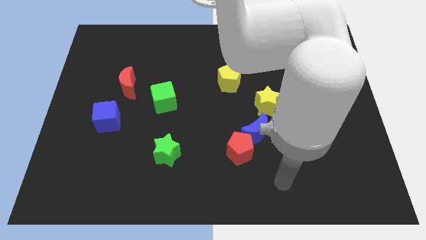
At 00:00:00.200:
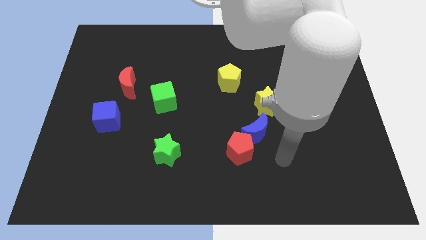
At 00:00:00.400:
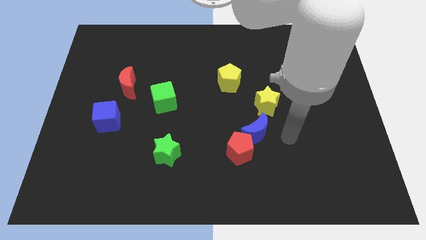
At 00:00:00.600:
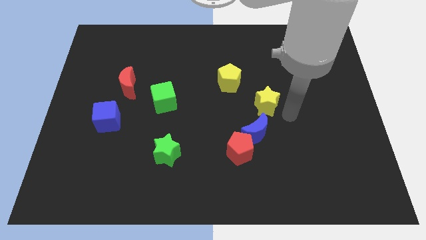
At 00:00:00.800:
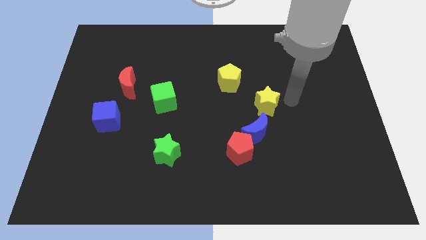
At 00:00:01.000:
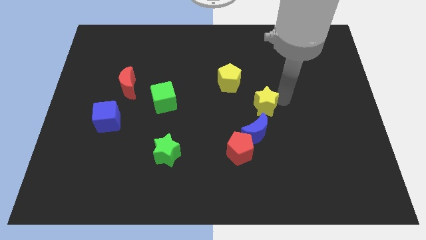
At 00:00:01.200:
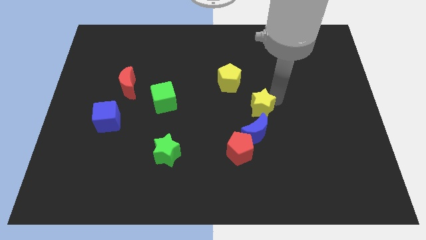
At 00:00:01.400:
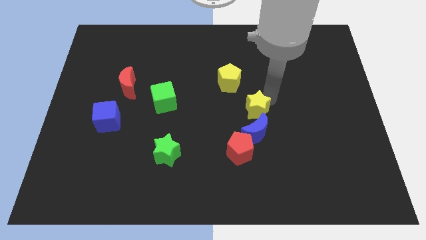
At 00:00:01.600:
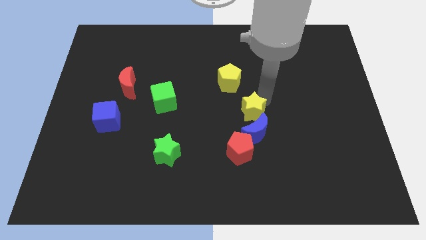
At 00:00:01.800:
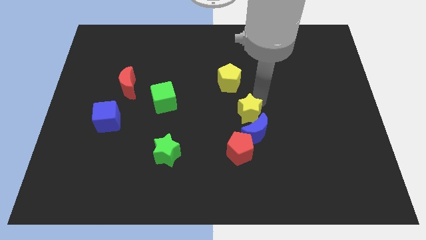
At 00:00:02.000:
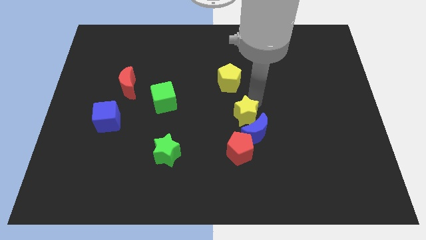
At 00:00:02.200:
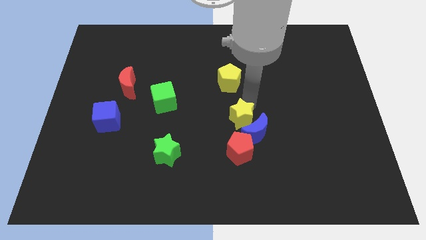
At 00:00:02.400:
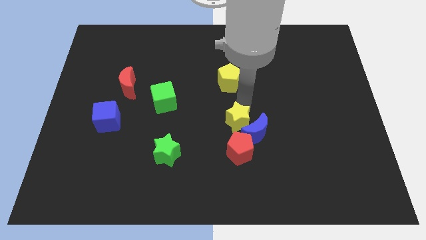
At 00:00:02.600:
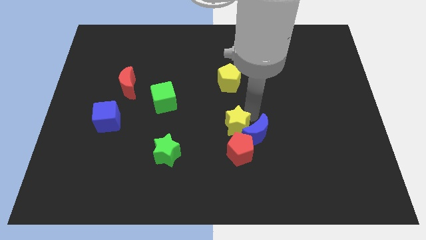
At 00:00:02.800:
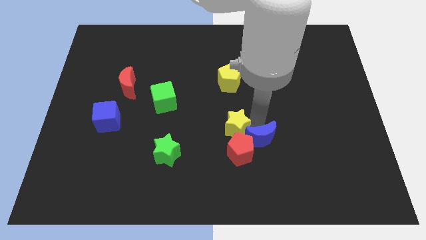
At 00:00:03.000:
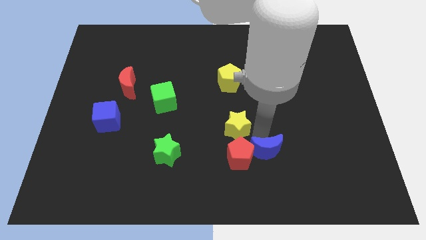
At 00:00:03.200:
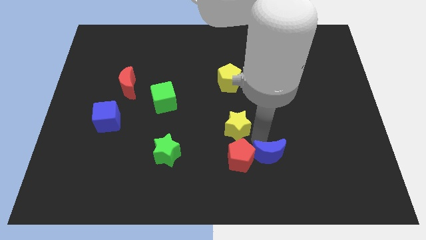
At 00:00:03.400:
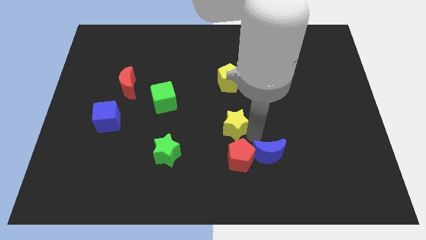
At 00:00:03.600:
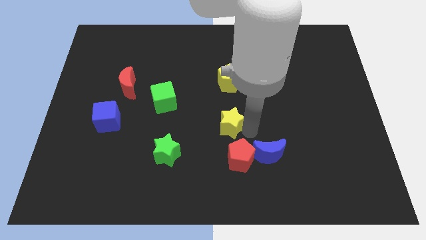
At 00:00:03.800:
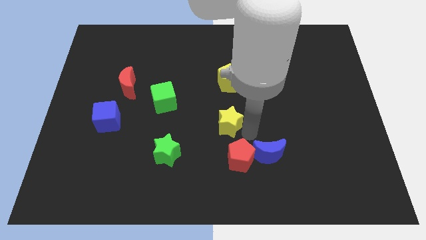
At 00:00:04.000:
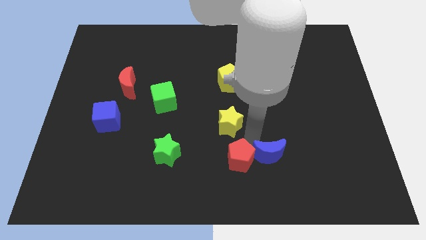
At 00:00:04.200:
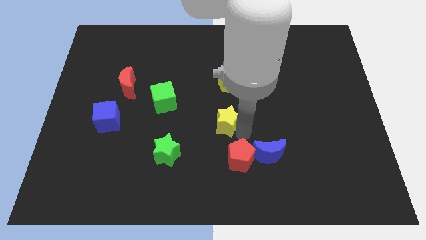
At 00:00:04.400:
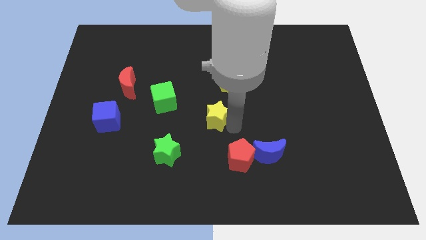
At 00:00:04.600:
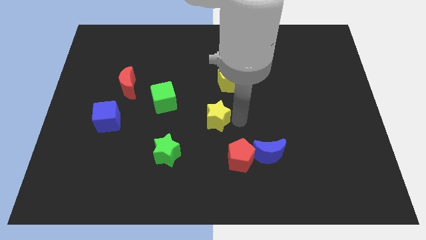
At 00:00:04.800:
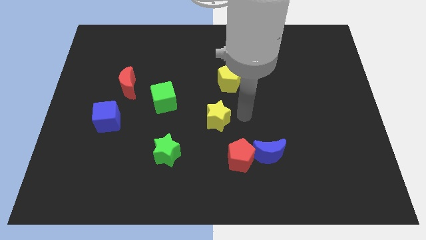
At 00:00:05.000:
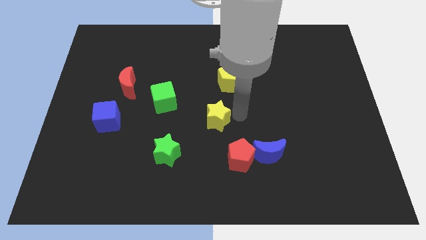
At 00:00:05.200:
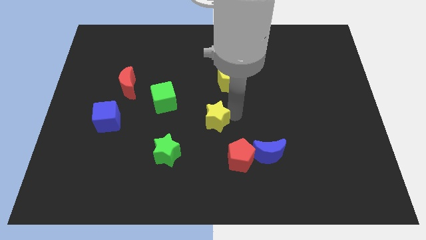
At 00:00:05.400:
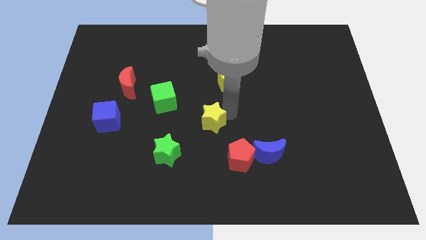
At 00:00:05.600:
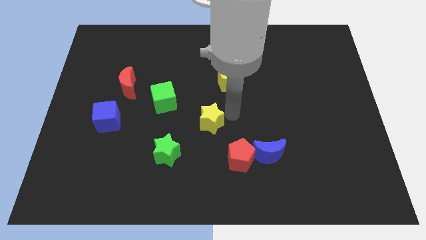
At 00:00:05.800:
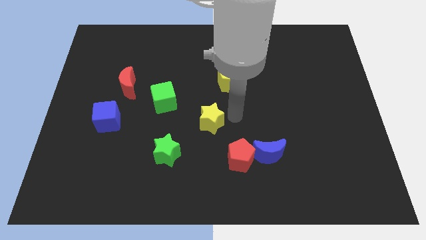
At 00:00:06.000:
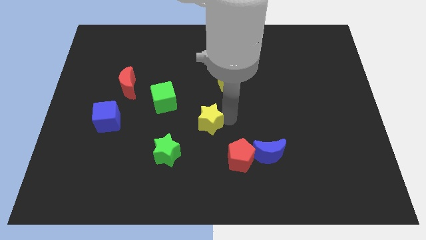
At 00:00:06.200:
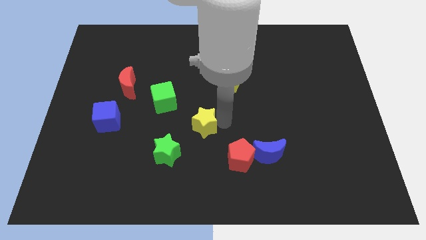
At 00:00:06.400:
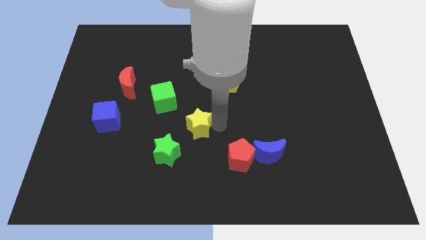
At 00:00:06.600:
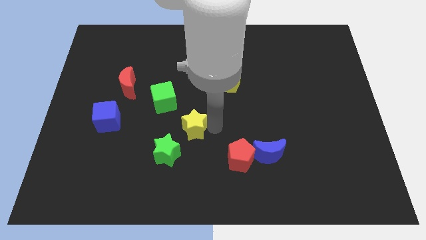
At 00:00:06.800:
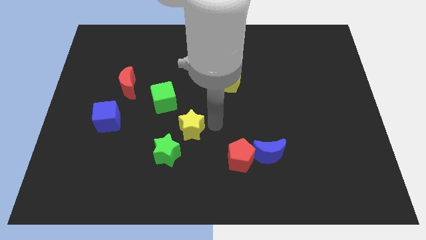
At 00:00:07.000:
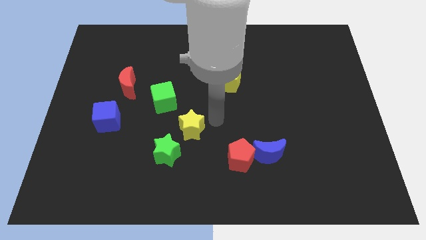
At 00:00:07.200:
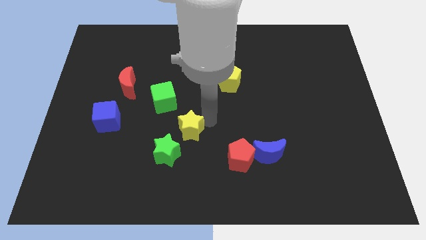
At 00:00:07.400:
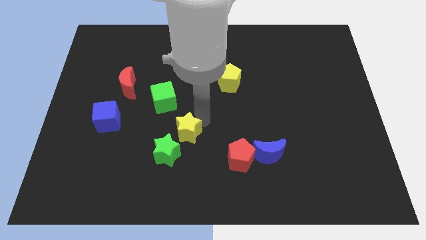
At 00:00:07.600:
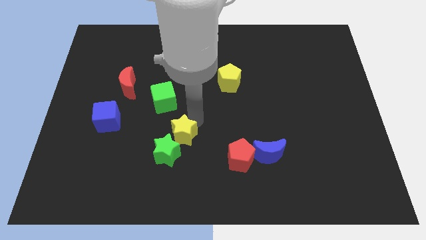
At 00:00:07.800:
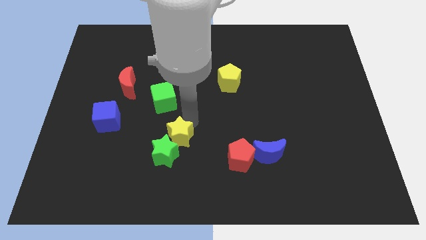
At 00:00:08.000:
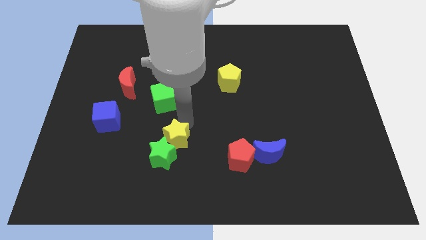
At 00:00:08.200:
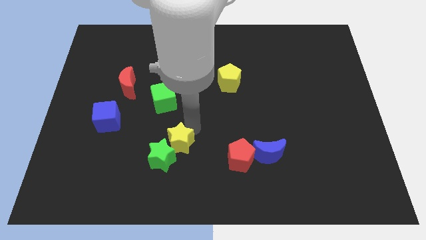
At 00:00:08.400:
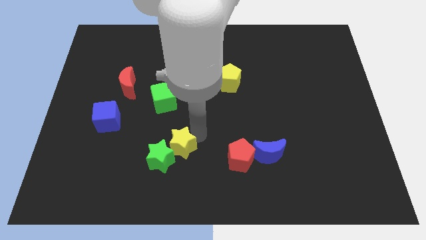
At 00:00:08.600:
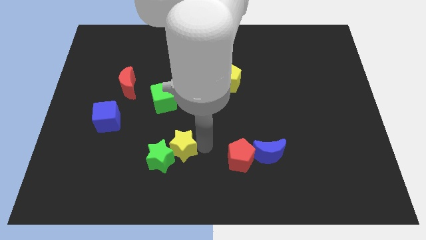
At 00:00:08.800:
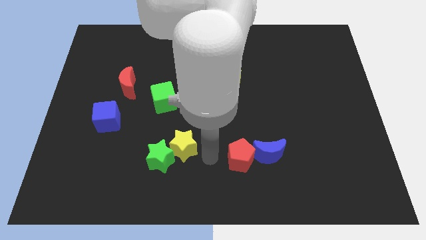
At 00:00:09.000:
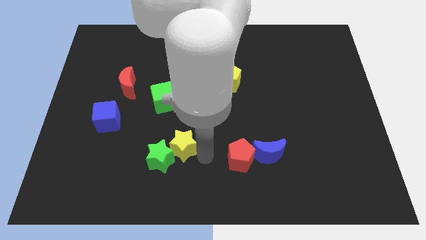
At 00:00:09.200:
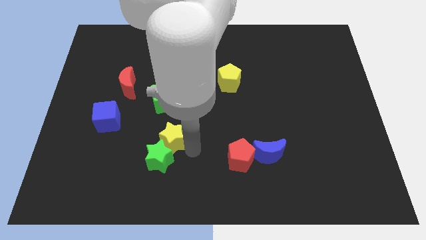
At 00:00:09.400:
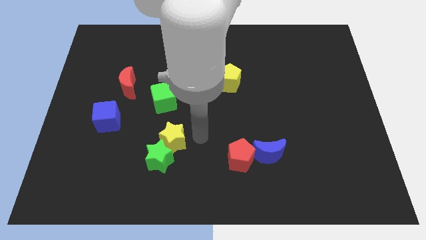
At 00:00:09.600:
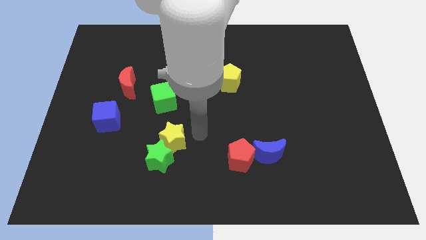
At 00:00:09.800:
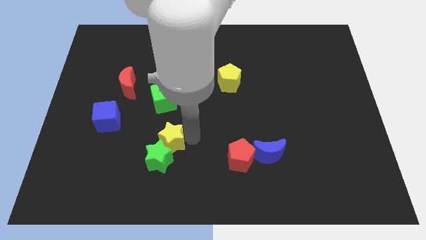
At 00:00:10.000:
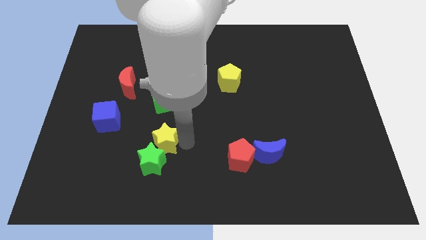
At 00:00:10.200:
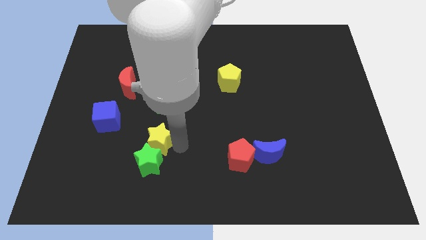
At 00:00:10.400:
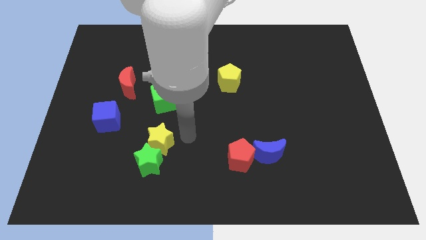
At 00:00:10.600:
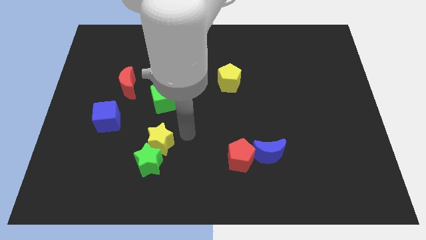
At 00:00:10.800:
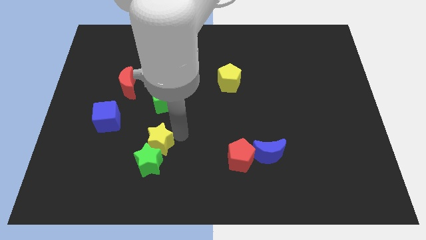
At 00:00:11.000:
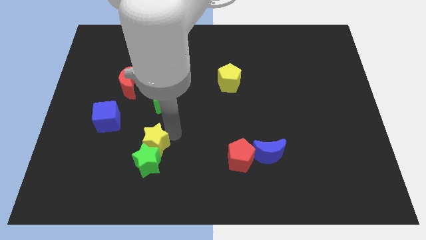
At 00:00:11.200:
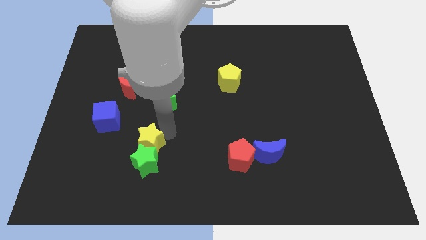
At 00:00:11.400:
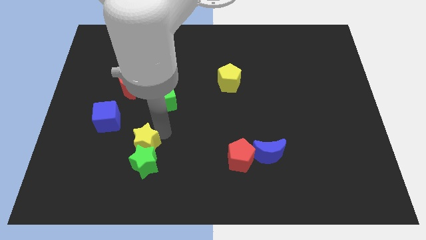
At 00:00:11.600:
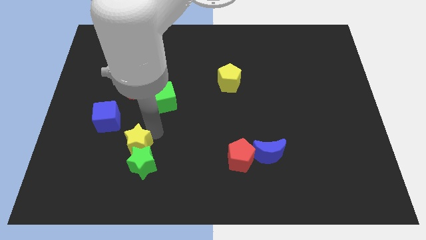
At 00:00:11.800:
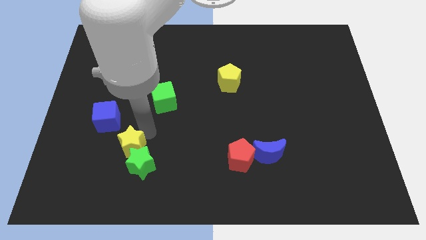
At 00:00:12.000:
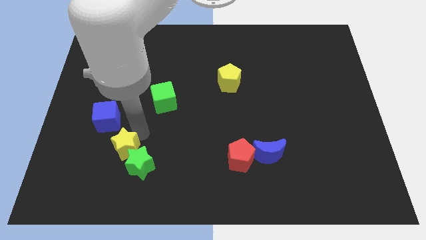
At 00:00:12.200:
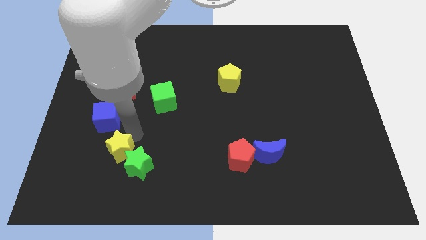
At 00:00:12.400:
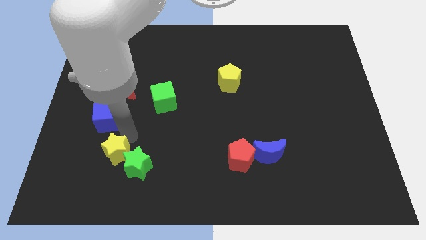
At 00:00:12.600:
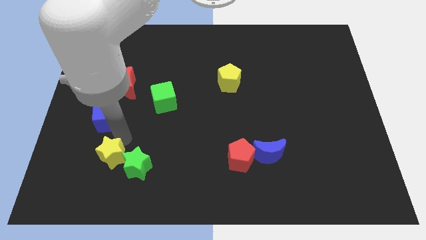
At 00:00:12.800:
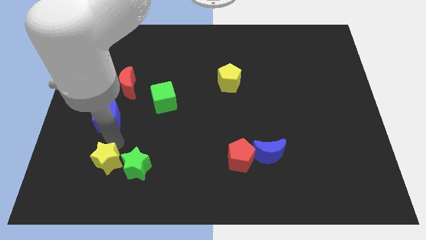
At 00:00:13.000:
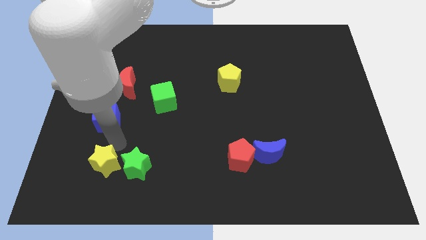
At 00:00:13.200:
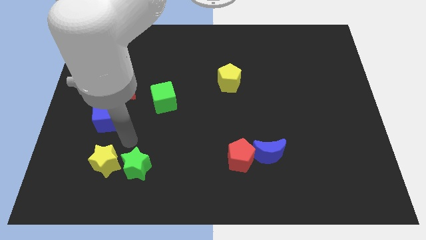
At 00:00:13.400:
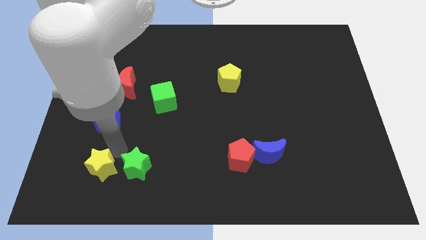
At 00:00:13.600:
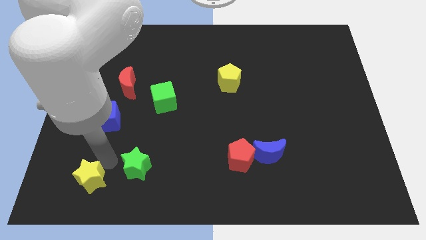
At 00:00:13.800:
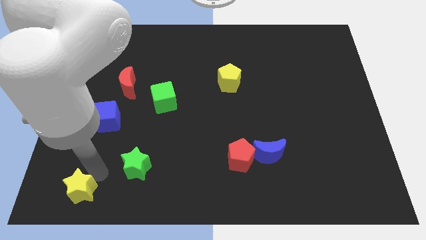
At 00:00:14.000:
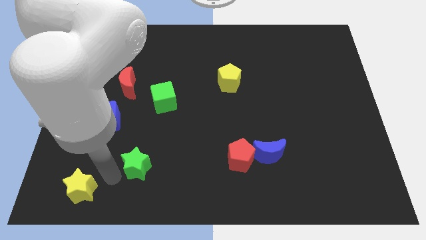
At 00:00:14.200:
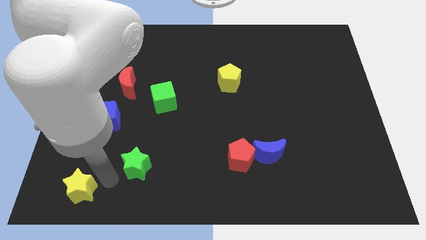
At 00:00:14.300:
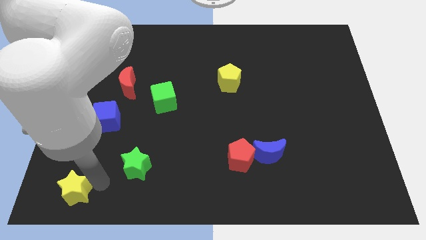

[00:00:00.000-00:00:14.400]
move the yellow star to the lower left corner
